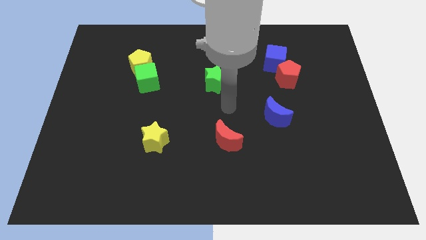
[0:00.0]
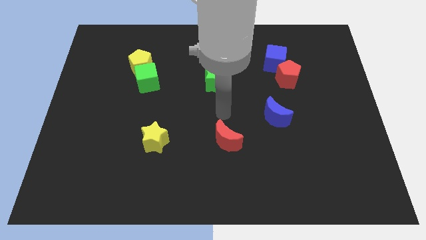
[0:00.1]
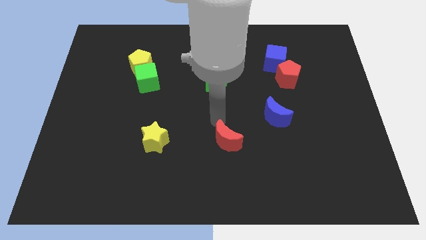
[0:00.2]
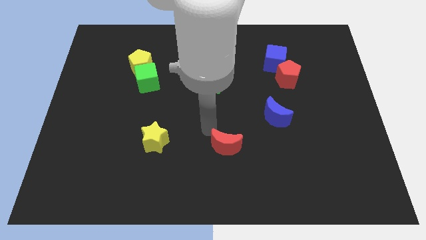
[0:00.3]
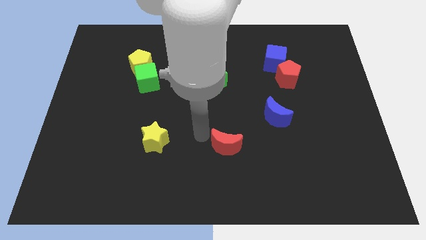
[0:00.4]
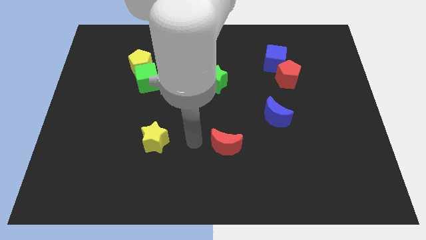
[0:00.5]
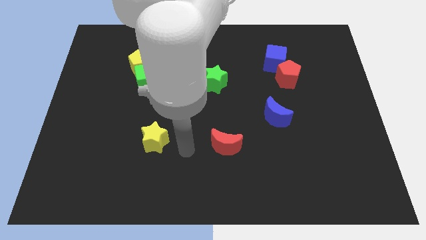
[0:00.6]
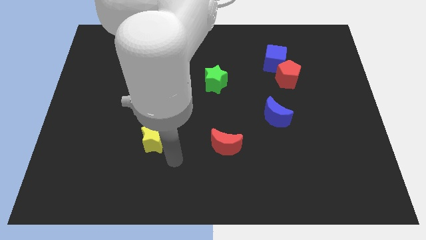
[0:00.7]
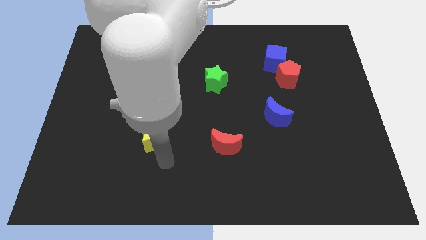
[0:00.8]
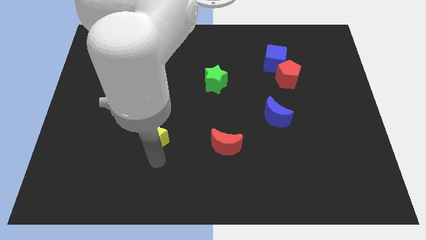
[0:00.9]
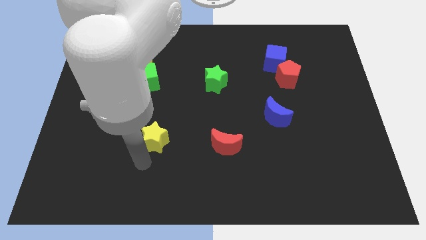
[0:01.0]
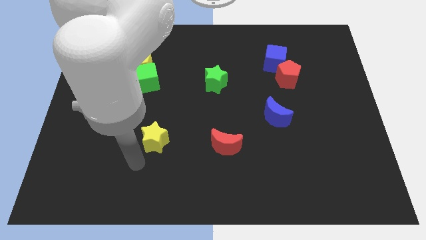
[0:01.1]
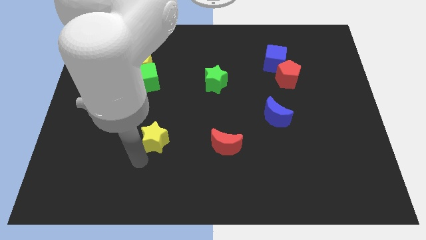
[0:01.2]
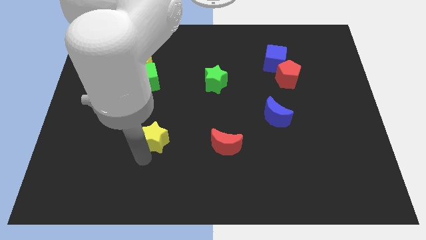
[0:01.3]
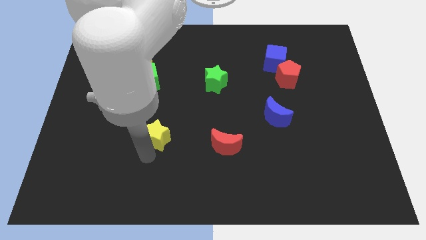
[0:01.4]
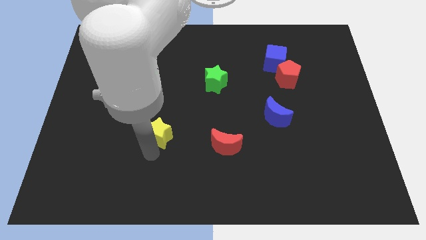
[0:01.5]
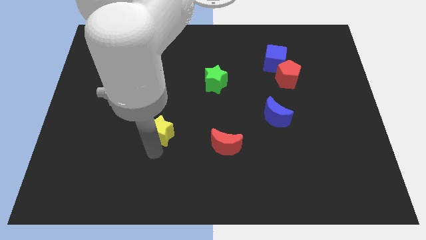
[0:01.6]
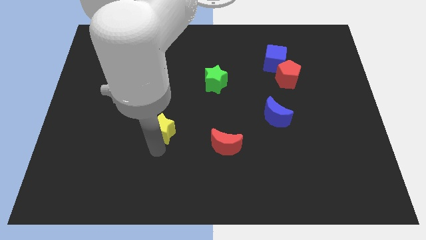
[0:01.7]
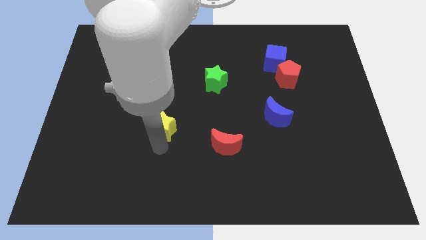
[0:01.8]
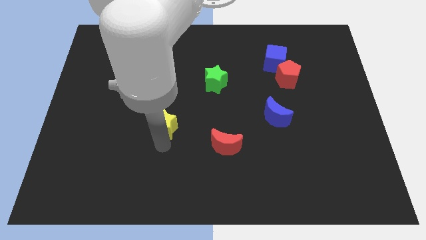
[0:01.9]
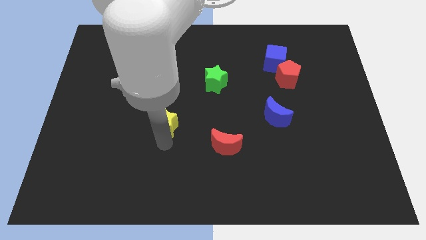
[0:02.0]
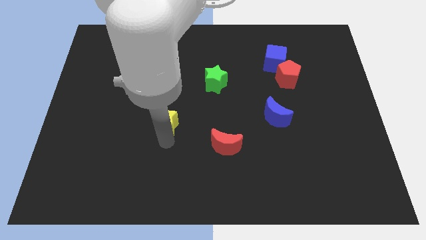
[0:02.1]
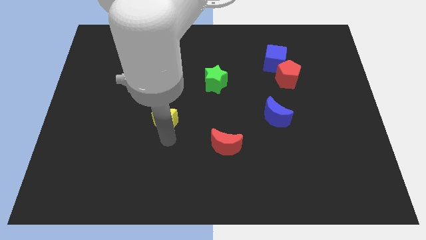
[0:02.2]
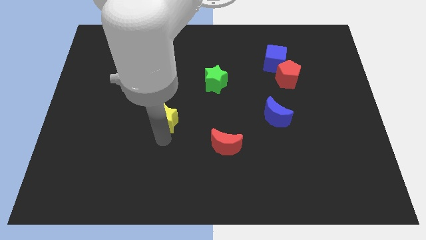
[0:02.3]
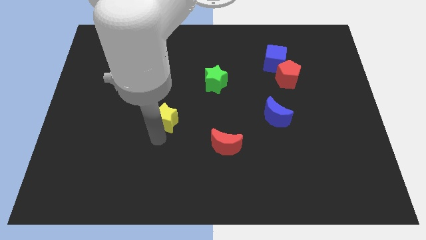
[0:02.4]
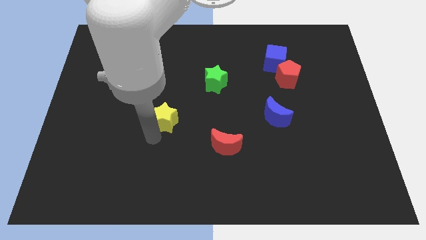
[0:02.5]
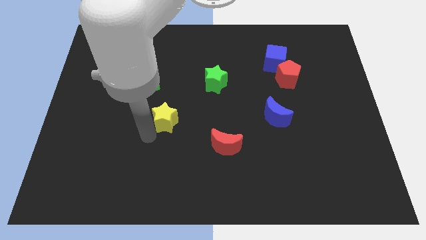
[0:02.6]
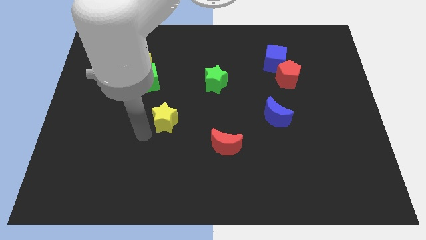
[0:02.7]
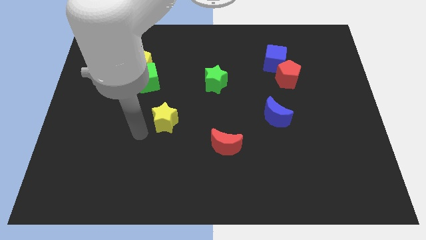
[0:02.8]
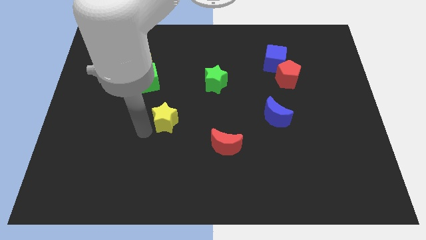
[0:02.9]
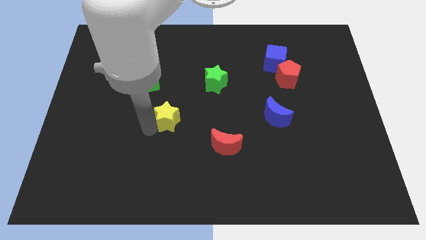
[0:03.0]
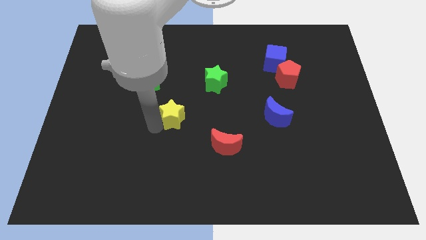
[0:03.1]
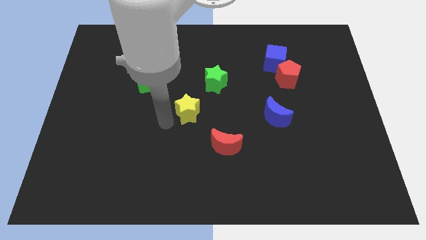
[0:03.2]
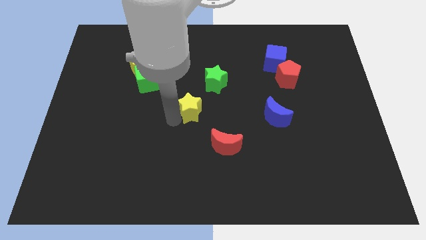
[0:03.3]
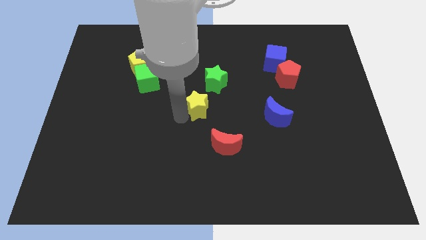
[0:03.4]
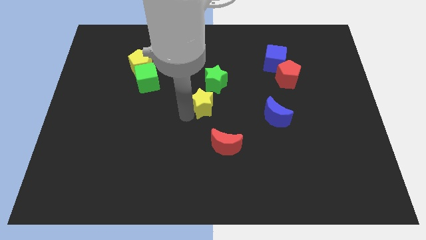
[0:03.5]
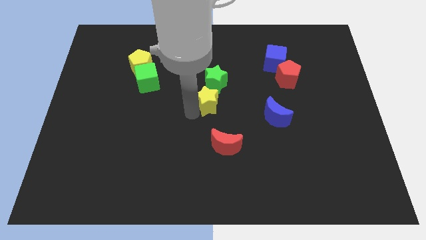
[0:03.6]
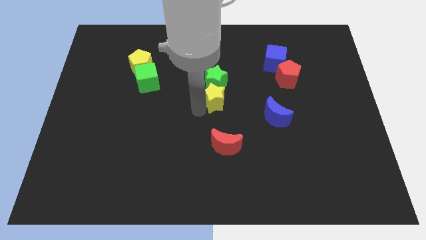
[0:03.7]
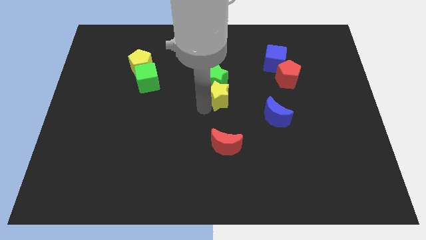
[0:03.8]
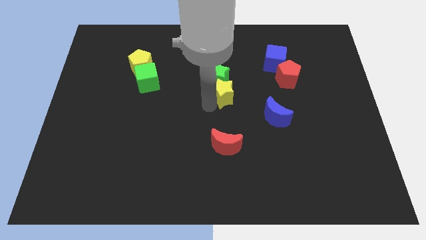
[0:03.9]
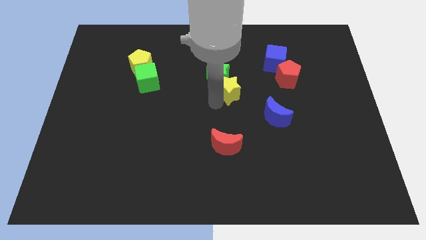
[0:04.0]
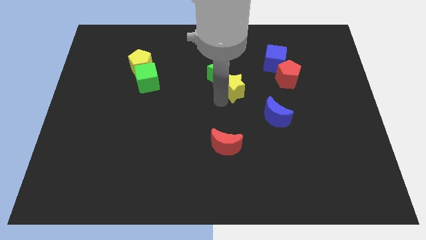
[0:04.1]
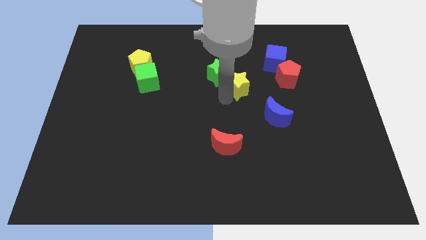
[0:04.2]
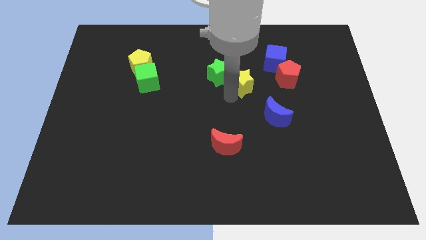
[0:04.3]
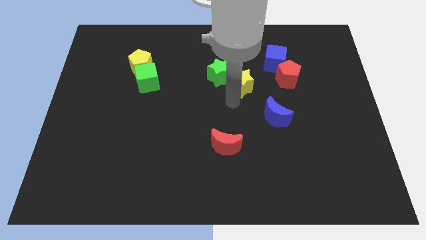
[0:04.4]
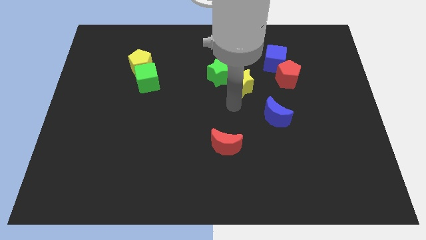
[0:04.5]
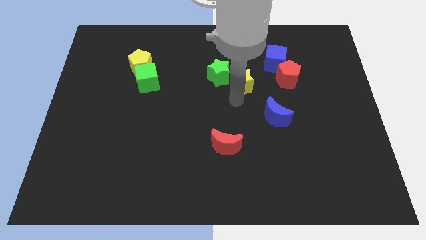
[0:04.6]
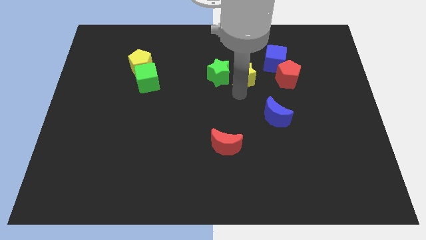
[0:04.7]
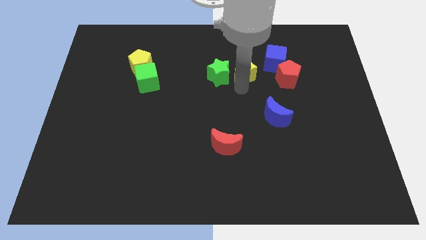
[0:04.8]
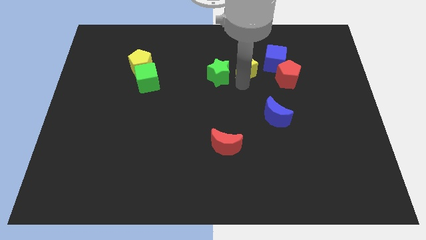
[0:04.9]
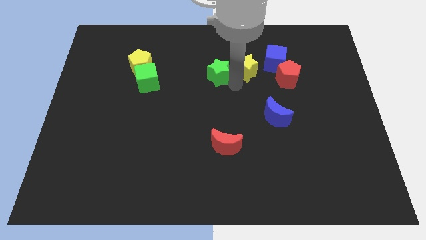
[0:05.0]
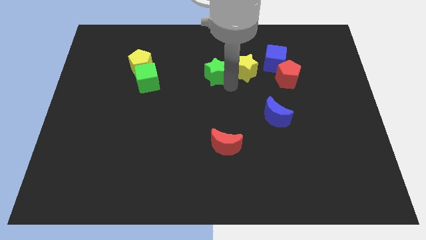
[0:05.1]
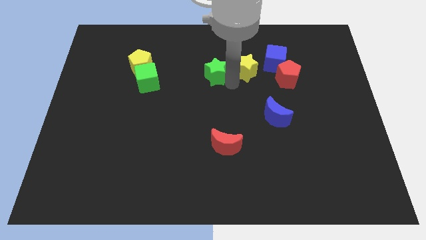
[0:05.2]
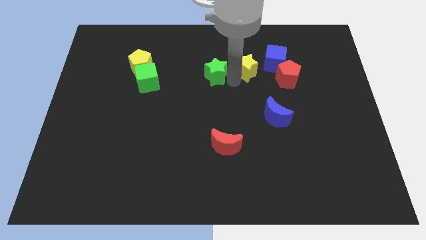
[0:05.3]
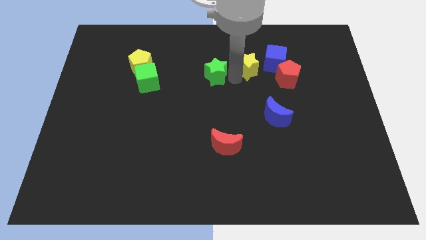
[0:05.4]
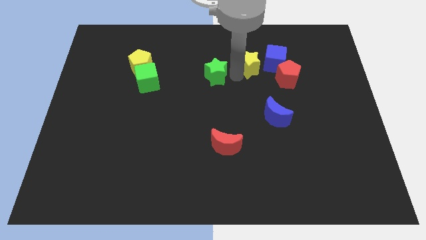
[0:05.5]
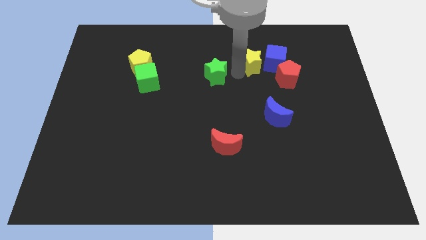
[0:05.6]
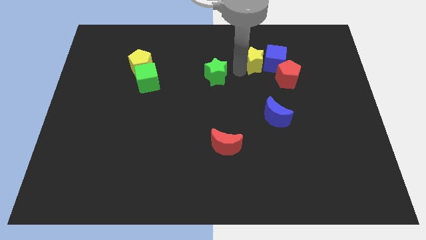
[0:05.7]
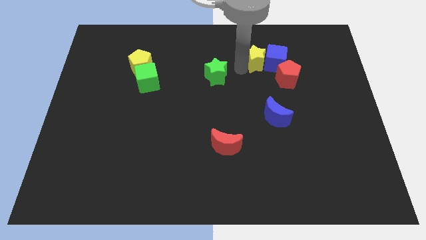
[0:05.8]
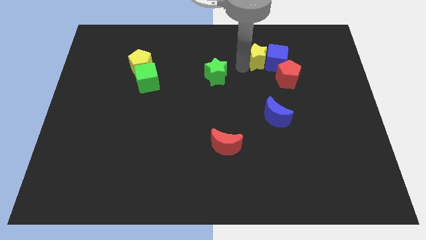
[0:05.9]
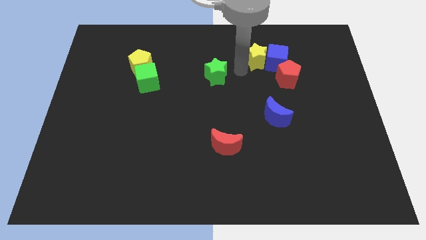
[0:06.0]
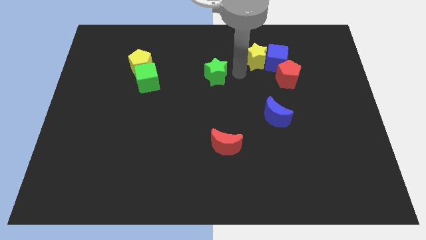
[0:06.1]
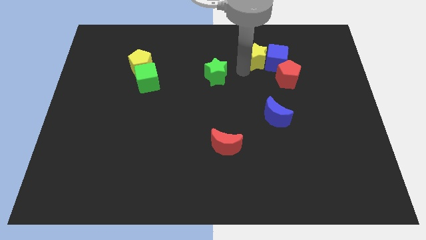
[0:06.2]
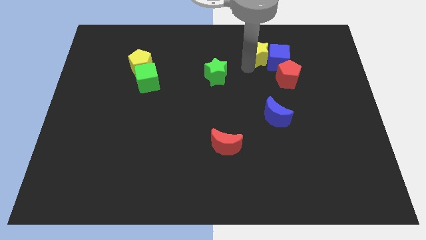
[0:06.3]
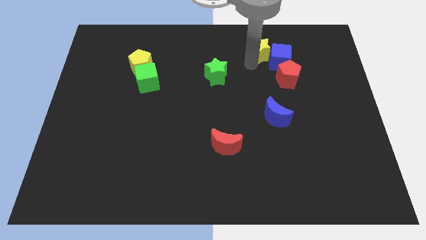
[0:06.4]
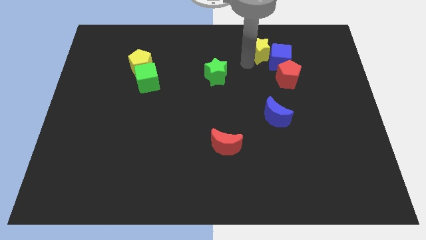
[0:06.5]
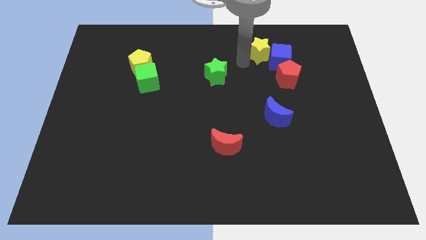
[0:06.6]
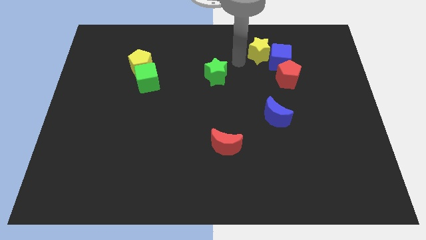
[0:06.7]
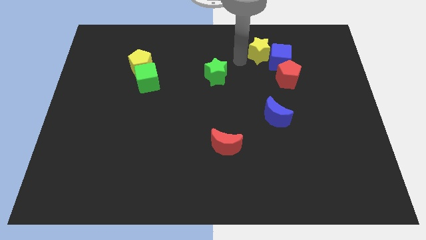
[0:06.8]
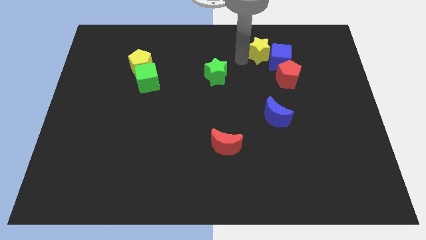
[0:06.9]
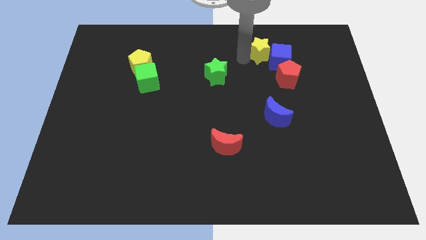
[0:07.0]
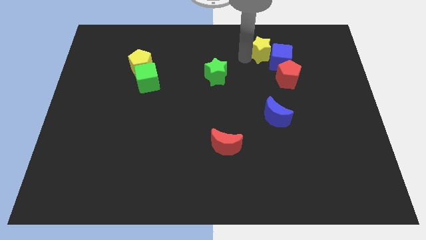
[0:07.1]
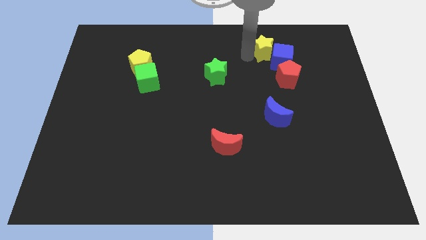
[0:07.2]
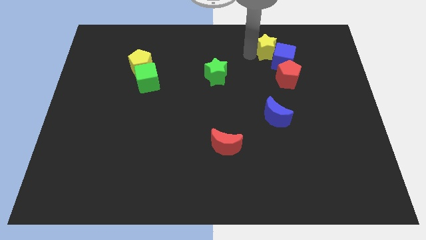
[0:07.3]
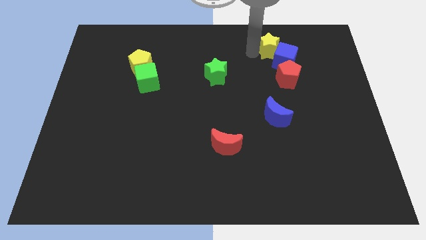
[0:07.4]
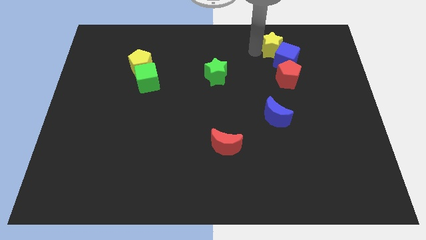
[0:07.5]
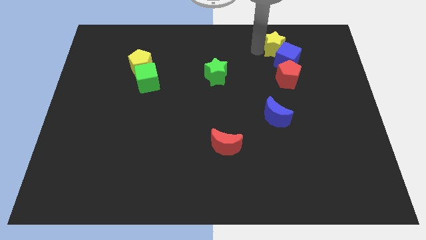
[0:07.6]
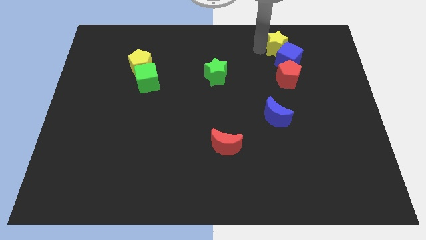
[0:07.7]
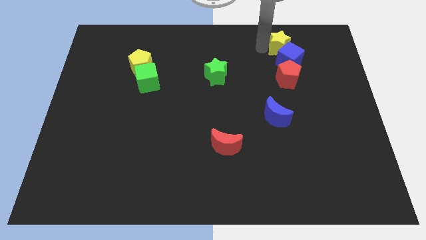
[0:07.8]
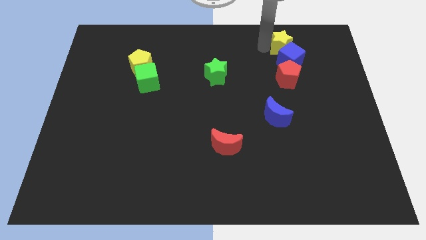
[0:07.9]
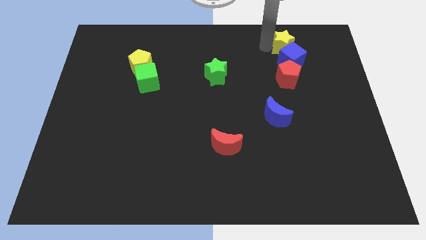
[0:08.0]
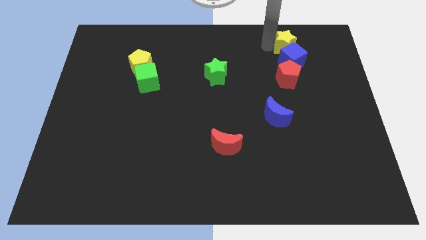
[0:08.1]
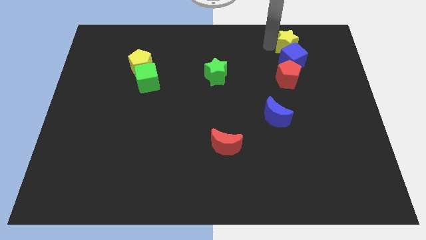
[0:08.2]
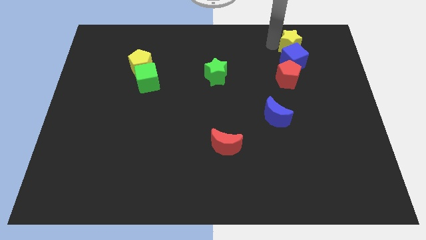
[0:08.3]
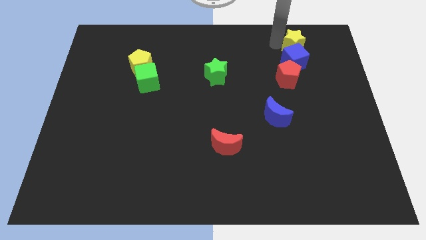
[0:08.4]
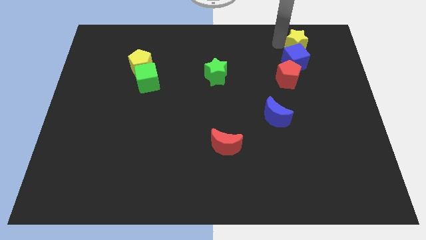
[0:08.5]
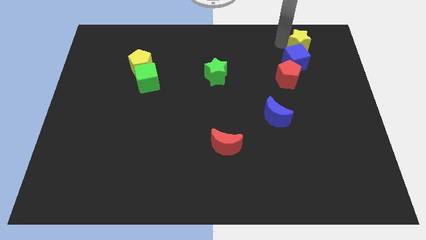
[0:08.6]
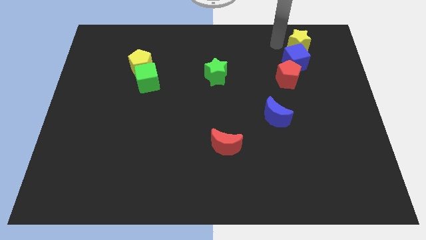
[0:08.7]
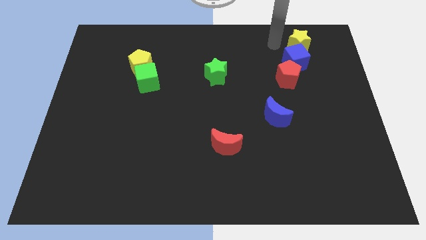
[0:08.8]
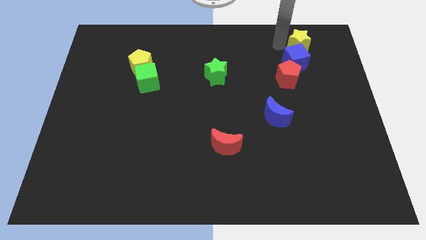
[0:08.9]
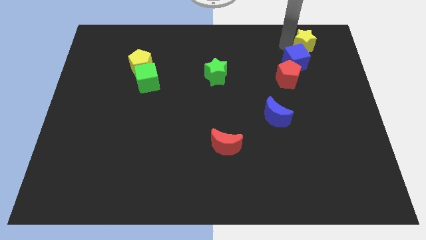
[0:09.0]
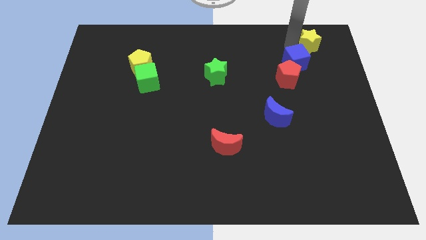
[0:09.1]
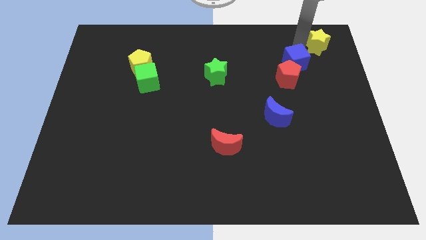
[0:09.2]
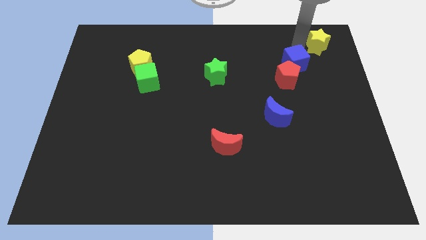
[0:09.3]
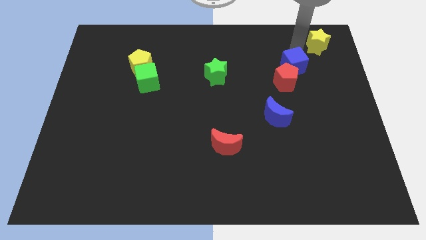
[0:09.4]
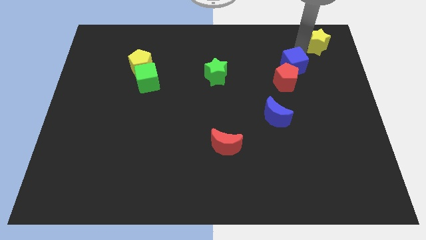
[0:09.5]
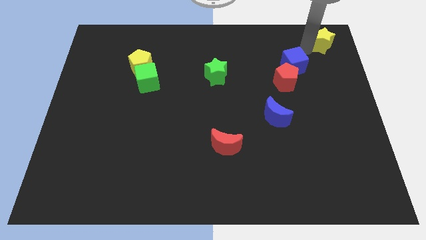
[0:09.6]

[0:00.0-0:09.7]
push the yellow star to the upper right corner
